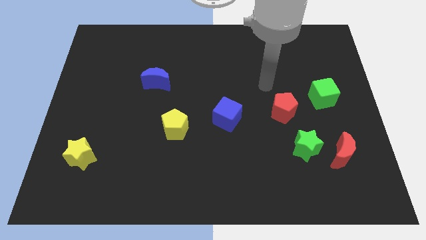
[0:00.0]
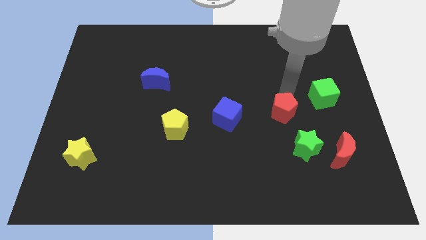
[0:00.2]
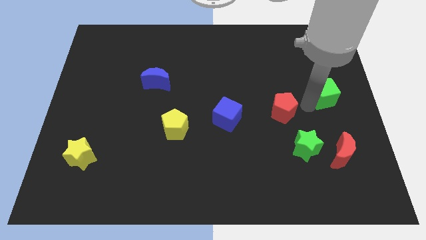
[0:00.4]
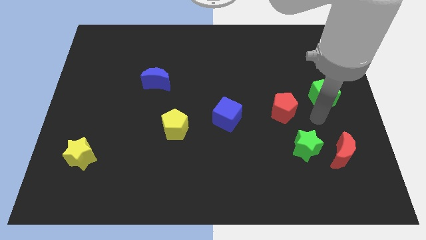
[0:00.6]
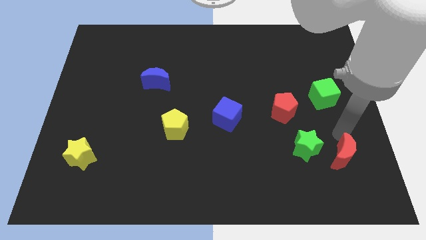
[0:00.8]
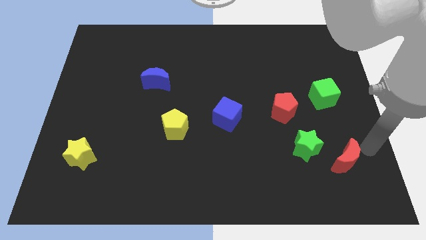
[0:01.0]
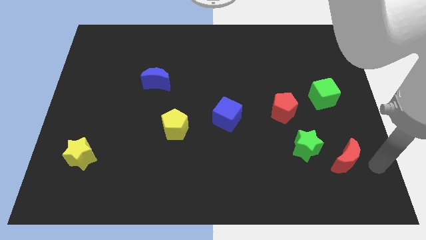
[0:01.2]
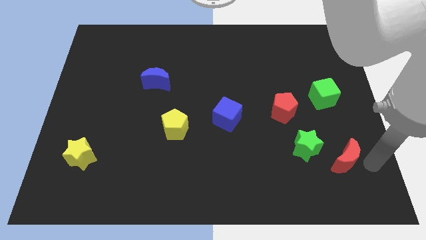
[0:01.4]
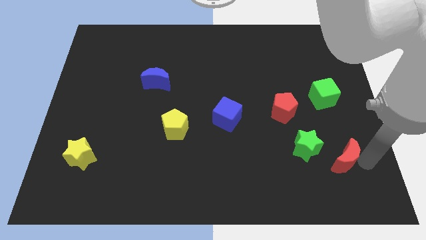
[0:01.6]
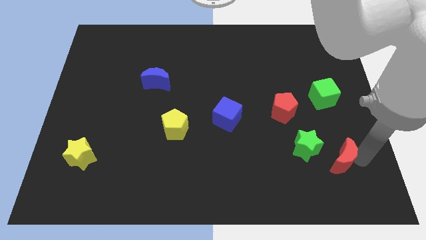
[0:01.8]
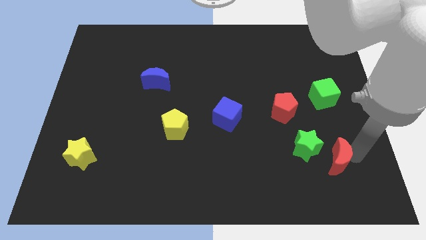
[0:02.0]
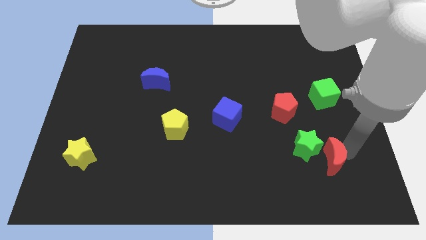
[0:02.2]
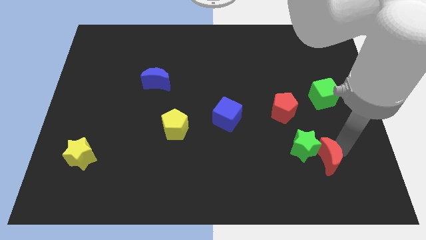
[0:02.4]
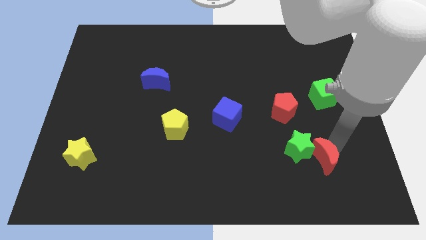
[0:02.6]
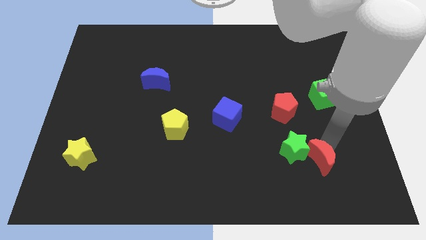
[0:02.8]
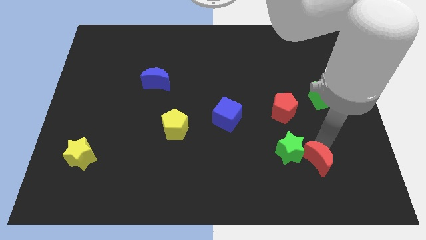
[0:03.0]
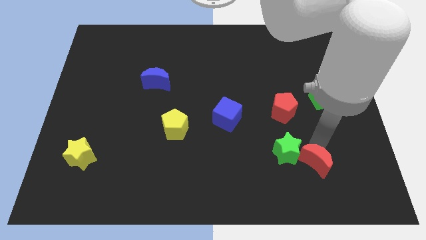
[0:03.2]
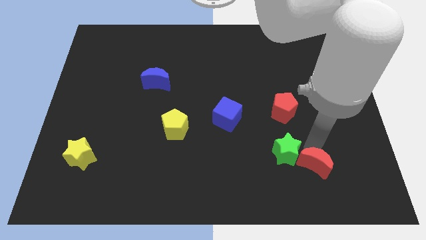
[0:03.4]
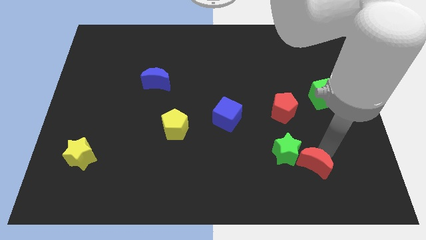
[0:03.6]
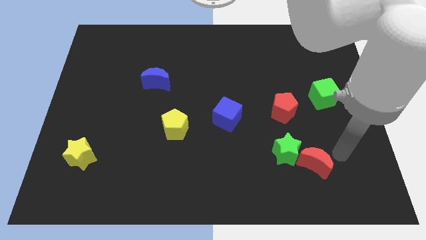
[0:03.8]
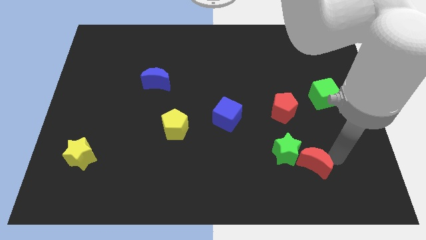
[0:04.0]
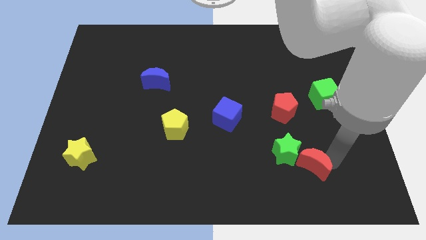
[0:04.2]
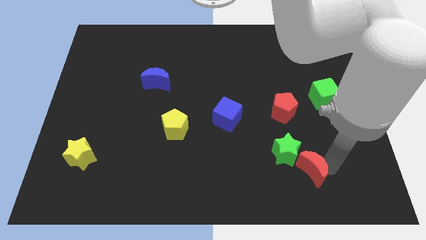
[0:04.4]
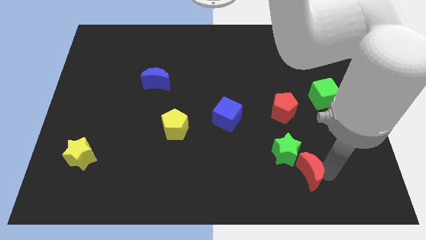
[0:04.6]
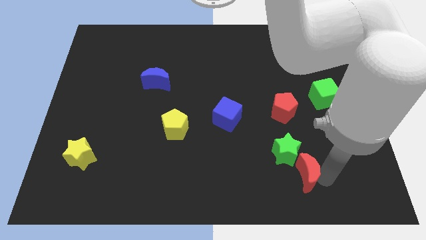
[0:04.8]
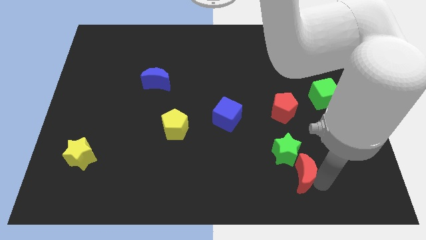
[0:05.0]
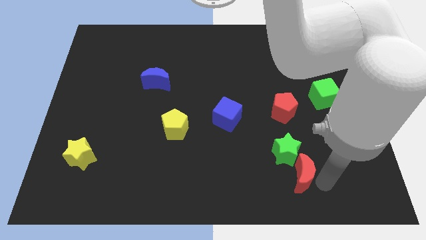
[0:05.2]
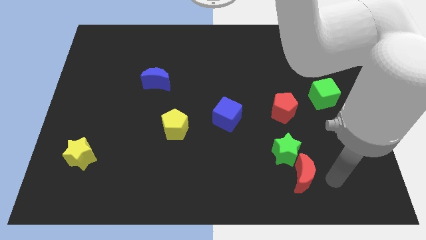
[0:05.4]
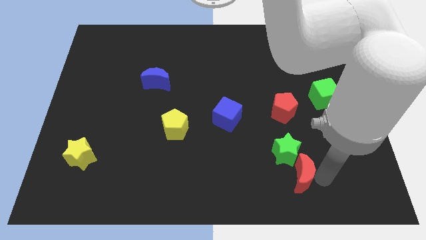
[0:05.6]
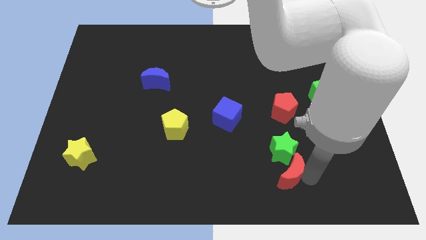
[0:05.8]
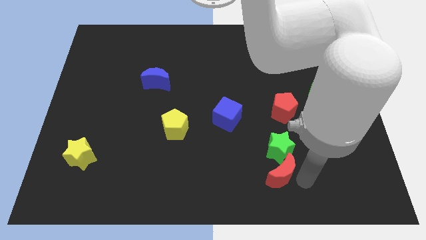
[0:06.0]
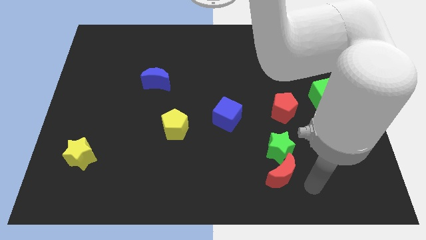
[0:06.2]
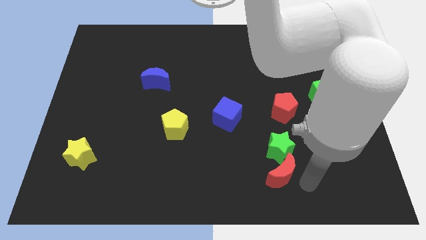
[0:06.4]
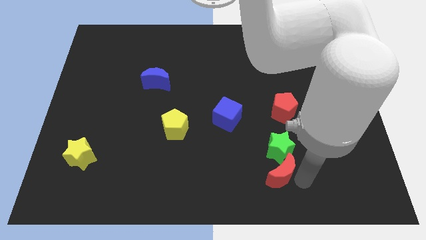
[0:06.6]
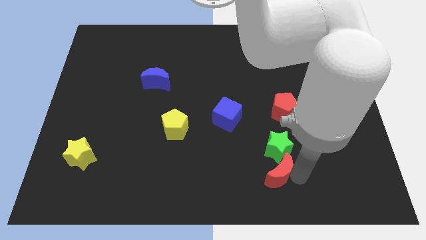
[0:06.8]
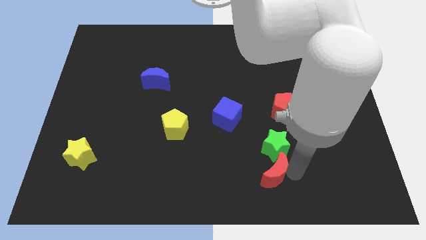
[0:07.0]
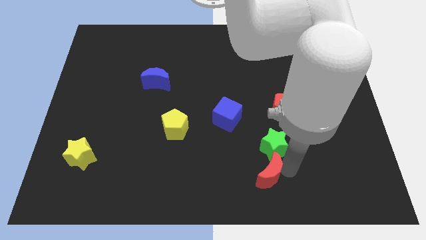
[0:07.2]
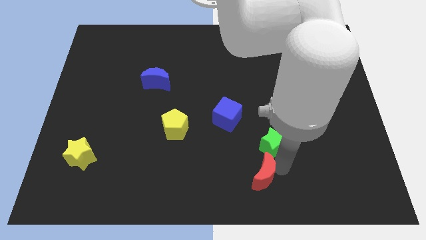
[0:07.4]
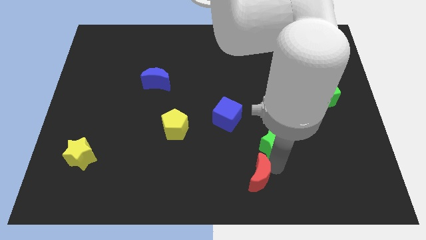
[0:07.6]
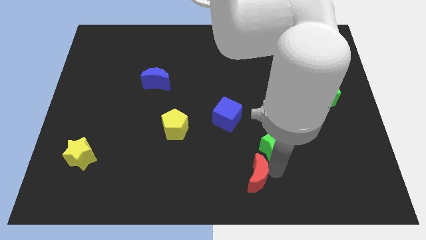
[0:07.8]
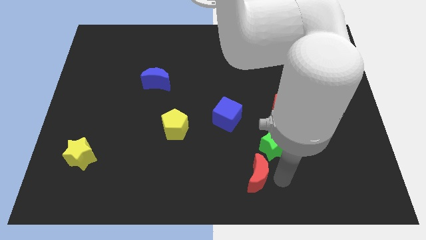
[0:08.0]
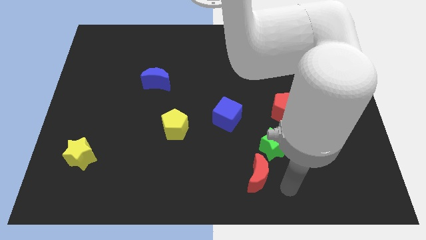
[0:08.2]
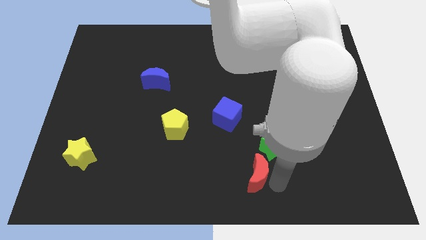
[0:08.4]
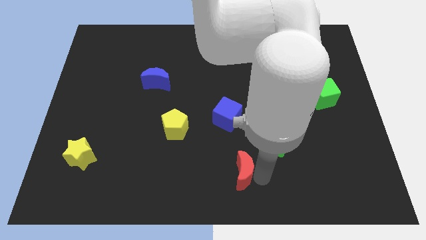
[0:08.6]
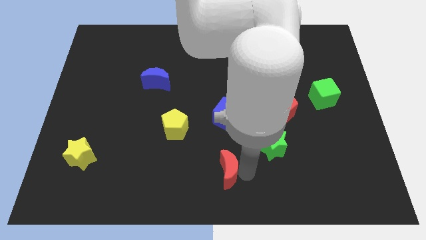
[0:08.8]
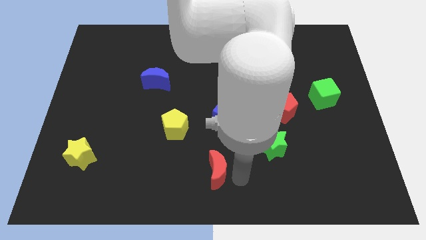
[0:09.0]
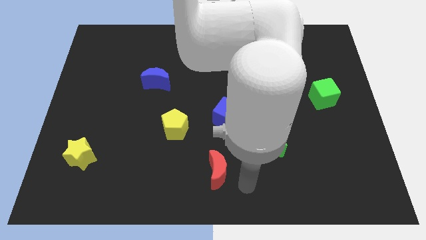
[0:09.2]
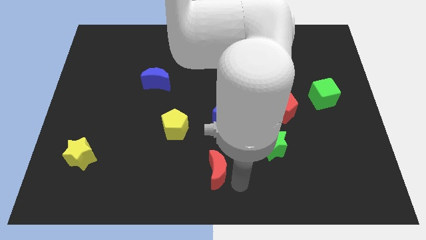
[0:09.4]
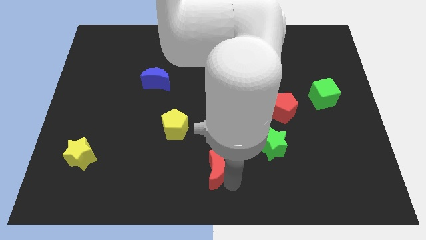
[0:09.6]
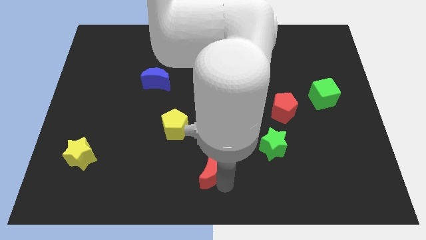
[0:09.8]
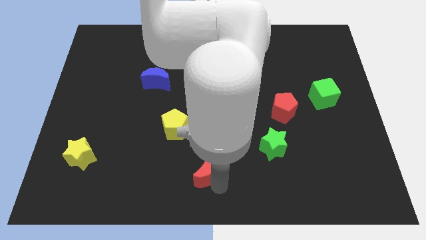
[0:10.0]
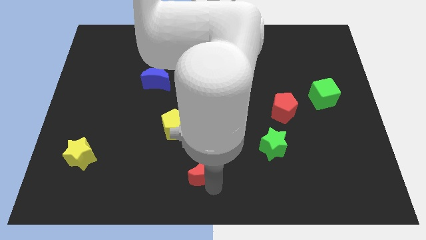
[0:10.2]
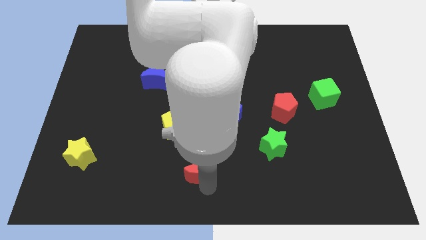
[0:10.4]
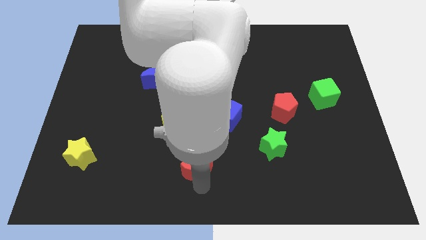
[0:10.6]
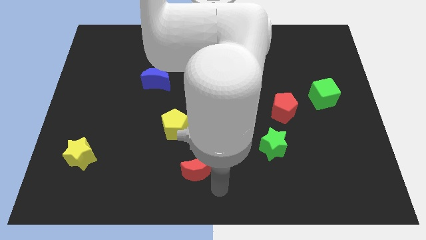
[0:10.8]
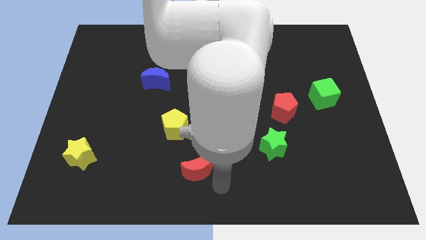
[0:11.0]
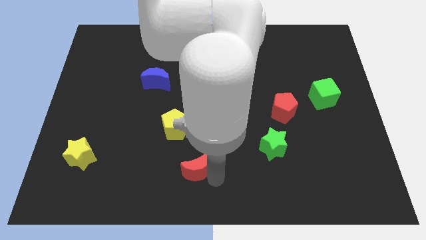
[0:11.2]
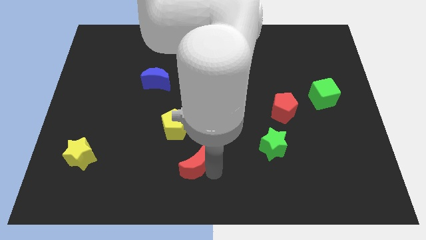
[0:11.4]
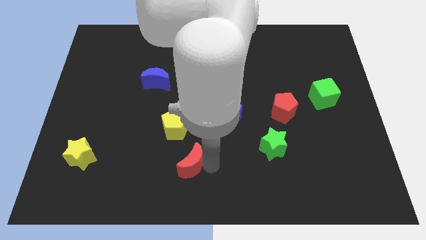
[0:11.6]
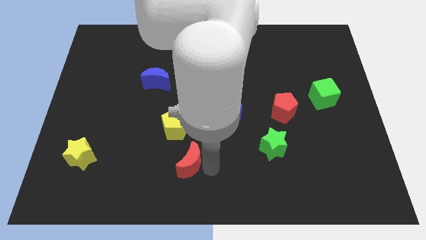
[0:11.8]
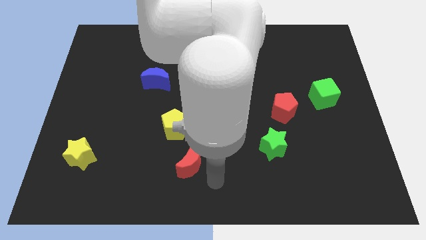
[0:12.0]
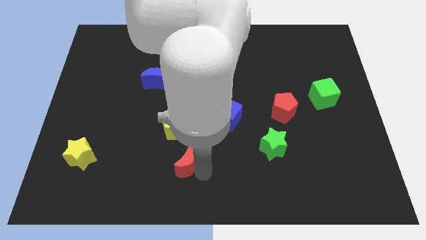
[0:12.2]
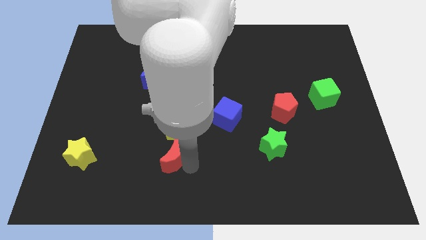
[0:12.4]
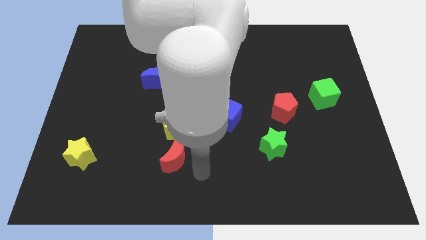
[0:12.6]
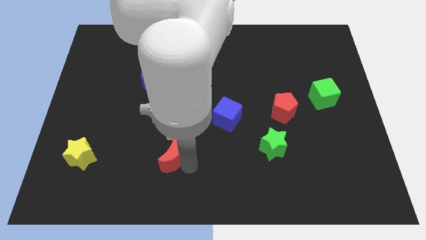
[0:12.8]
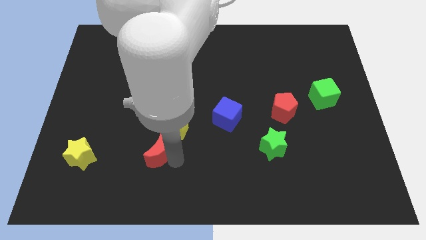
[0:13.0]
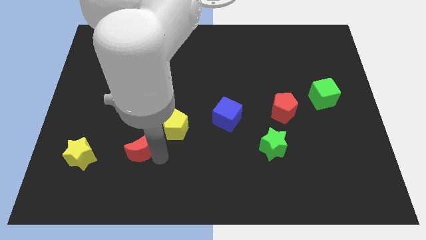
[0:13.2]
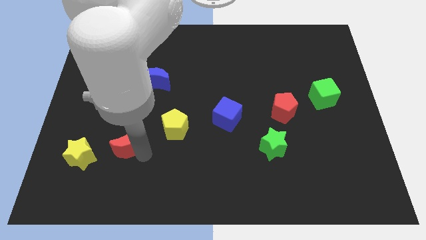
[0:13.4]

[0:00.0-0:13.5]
put the red moon to the left of the yellow pentagon
